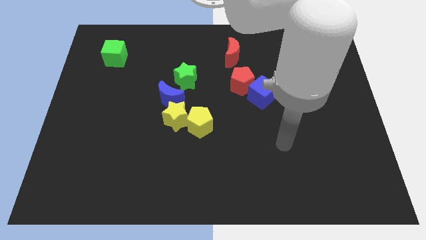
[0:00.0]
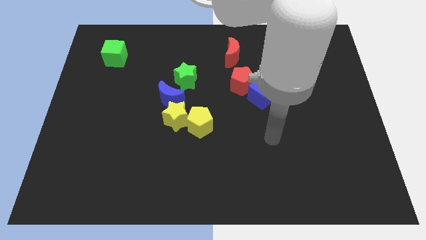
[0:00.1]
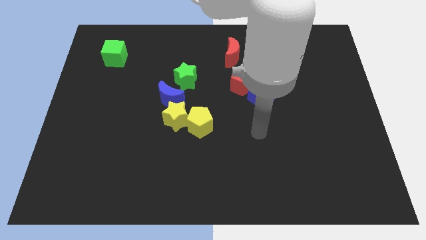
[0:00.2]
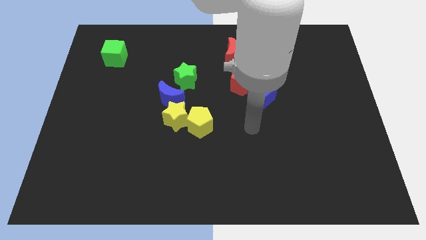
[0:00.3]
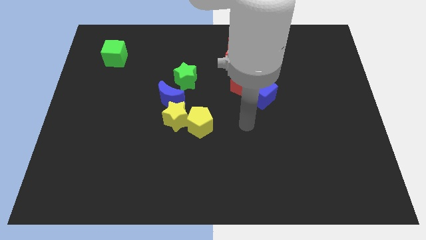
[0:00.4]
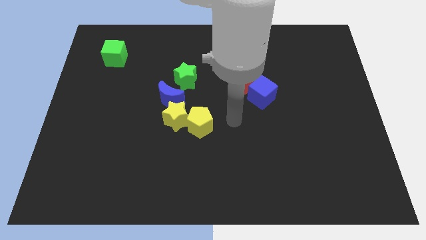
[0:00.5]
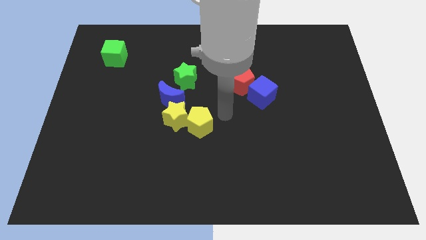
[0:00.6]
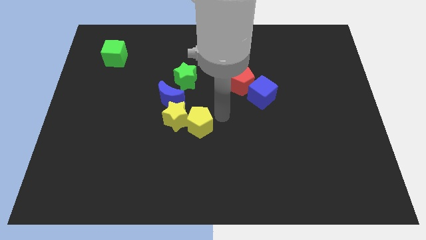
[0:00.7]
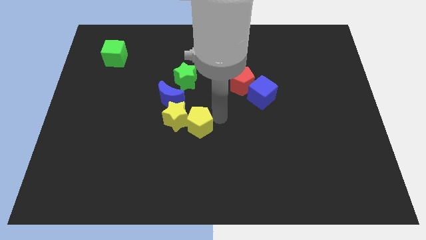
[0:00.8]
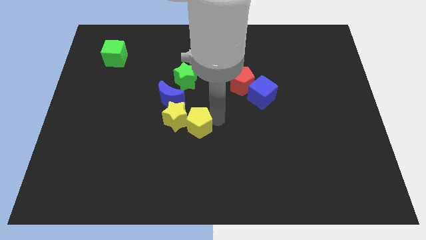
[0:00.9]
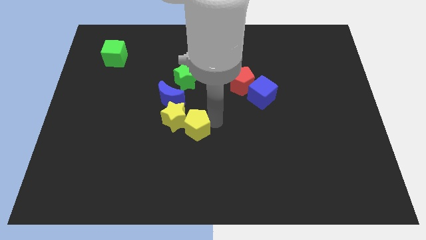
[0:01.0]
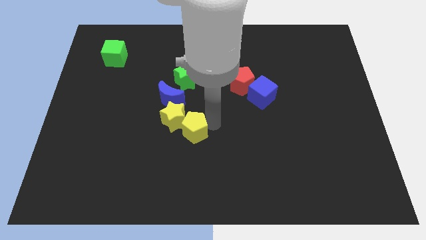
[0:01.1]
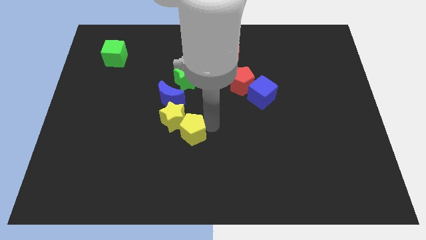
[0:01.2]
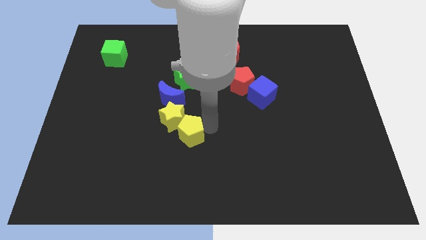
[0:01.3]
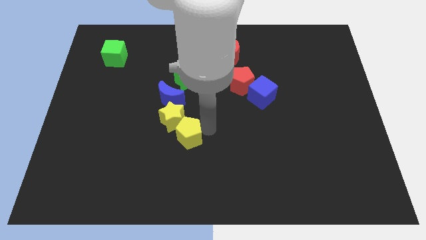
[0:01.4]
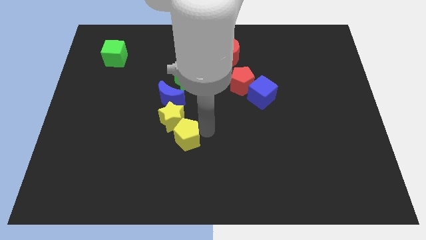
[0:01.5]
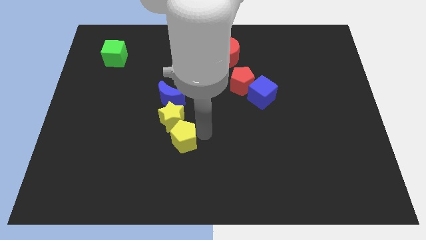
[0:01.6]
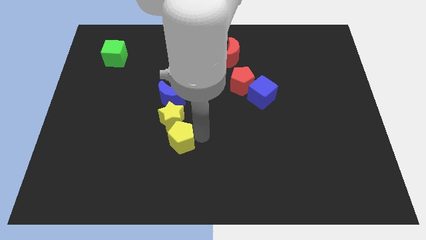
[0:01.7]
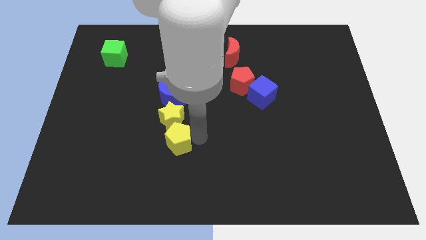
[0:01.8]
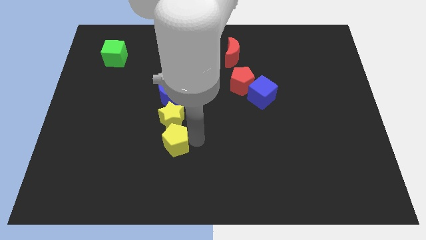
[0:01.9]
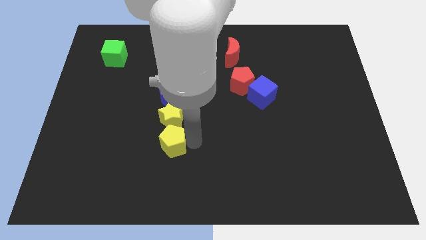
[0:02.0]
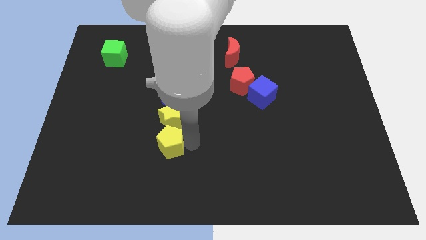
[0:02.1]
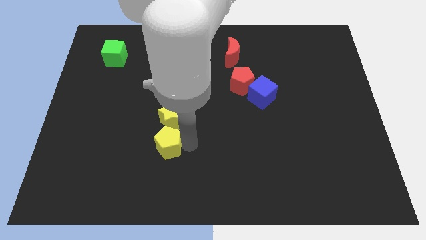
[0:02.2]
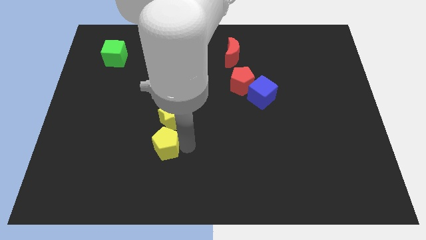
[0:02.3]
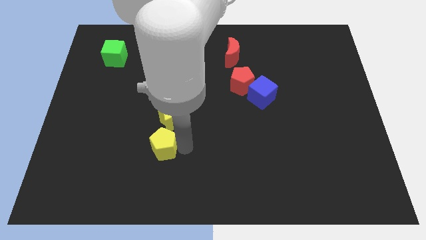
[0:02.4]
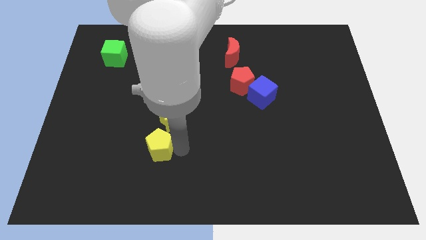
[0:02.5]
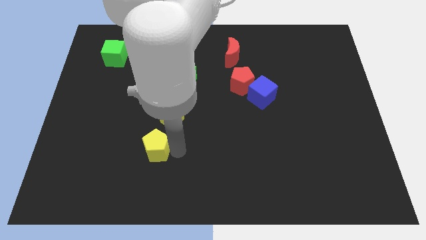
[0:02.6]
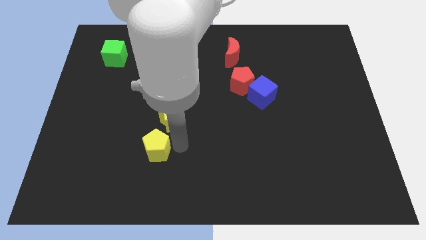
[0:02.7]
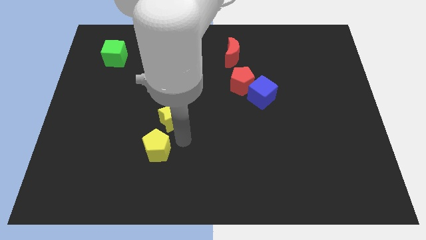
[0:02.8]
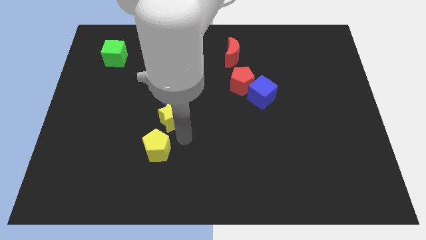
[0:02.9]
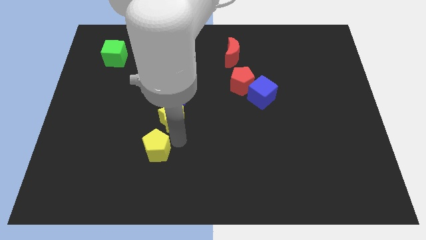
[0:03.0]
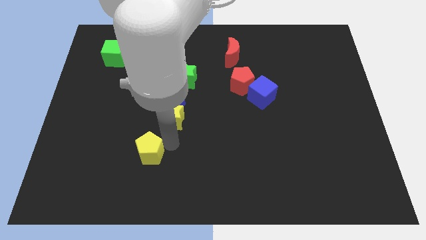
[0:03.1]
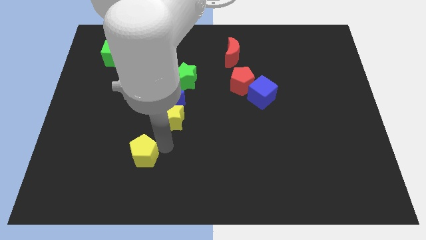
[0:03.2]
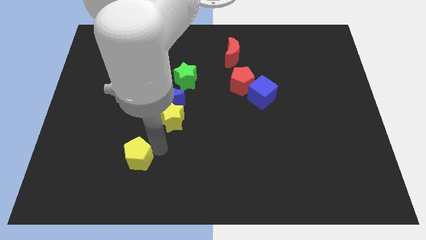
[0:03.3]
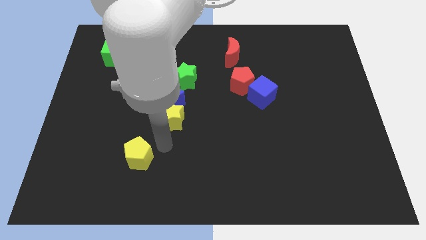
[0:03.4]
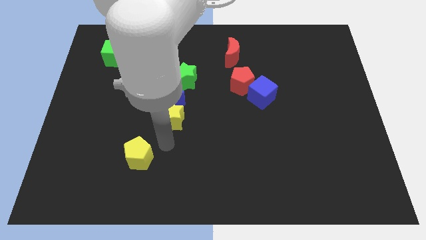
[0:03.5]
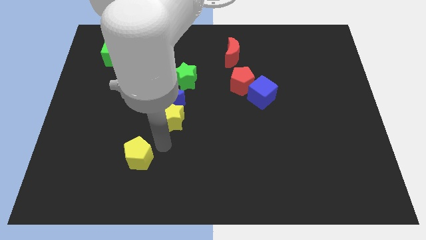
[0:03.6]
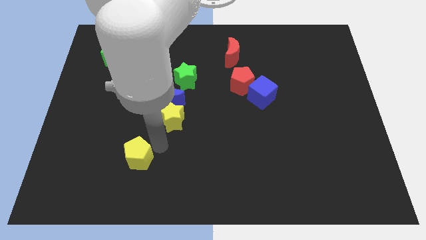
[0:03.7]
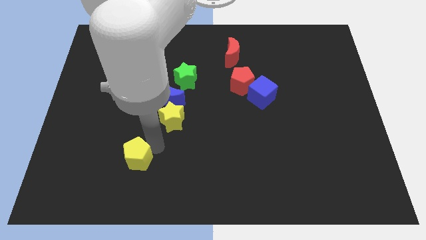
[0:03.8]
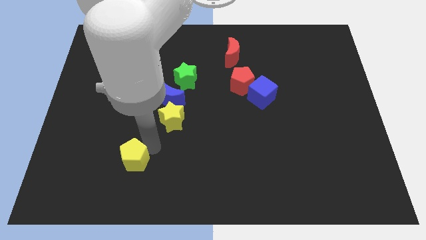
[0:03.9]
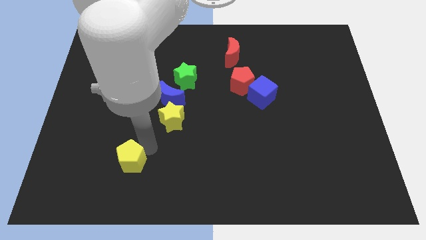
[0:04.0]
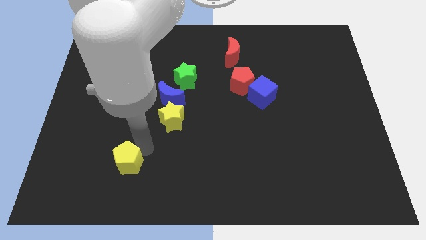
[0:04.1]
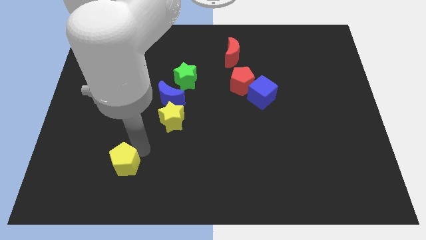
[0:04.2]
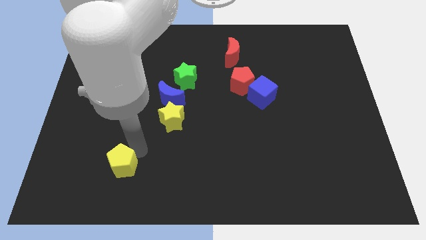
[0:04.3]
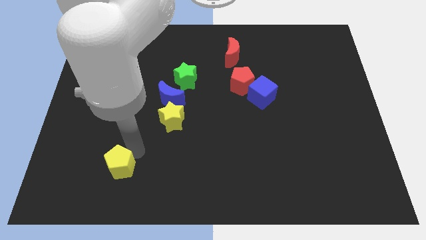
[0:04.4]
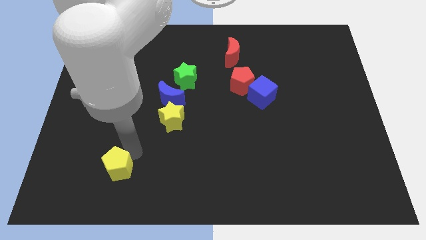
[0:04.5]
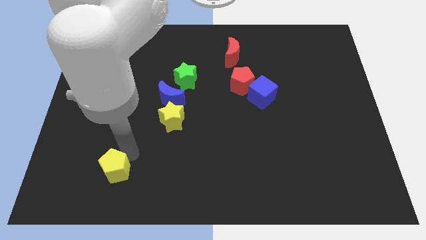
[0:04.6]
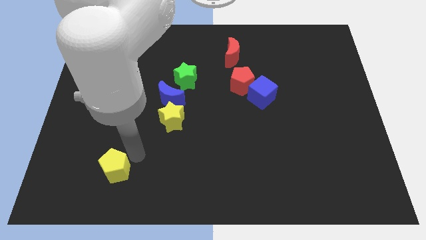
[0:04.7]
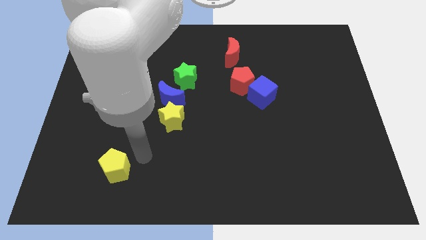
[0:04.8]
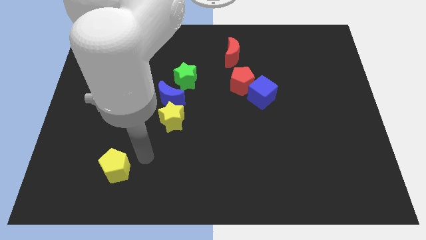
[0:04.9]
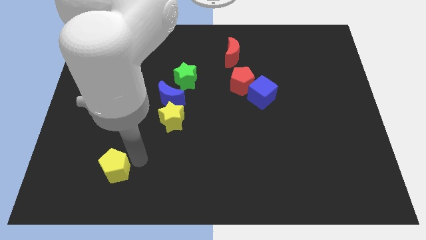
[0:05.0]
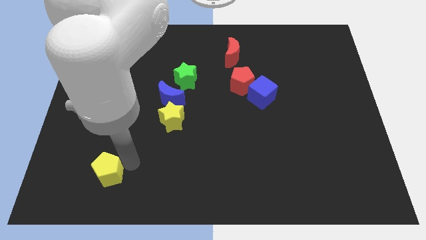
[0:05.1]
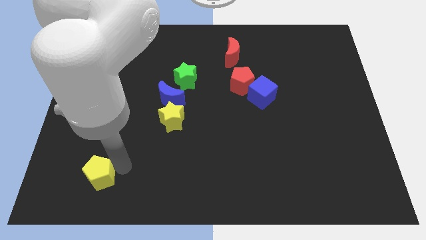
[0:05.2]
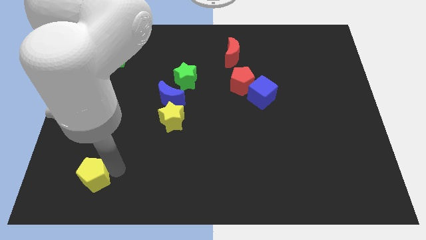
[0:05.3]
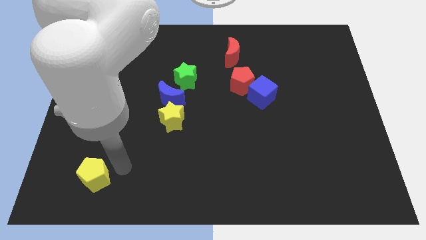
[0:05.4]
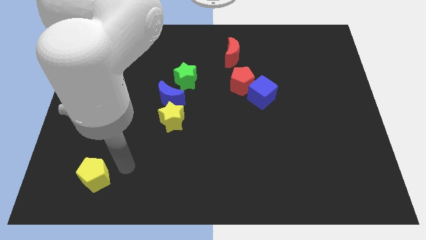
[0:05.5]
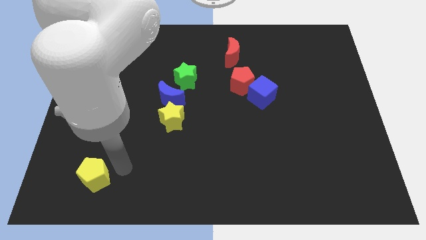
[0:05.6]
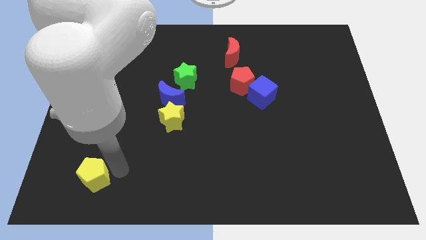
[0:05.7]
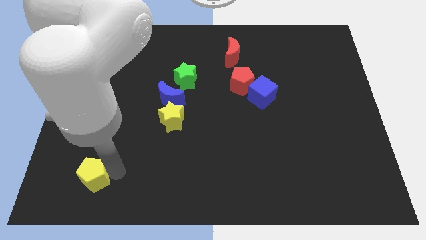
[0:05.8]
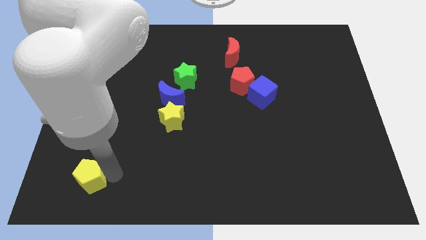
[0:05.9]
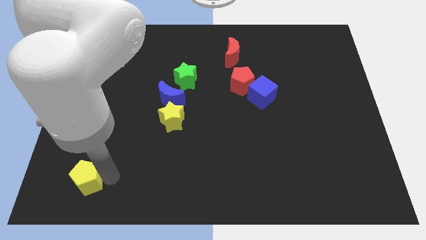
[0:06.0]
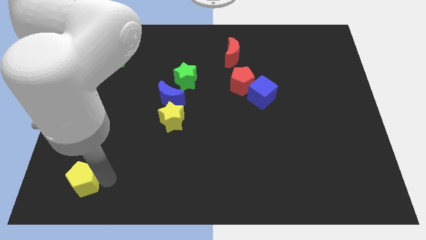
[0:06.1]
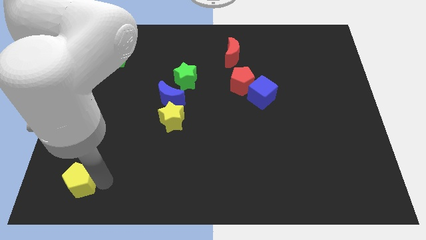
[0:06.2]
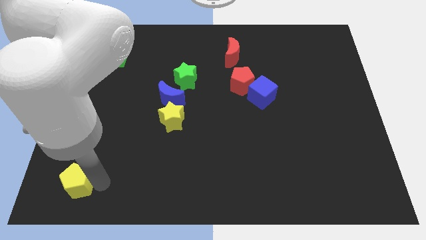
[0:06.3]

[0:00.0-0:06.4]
push the yellow pentagon to the bottom left of the board

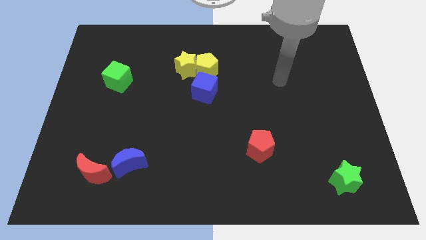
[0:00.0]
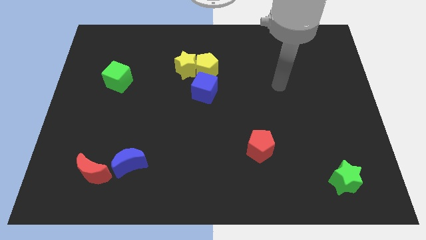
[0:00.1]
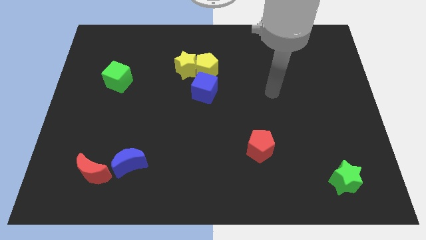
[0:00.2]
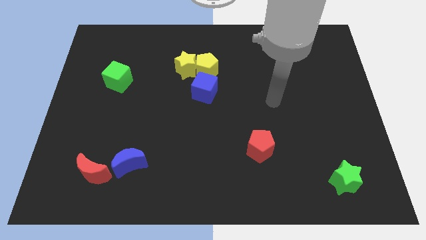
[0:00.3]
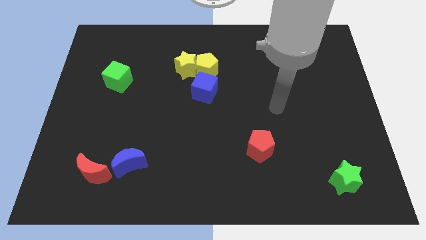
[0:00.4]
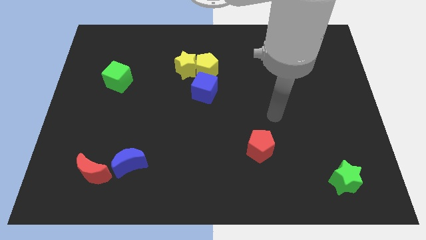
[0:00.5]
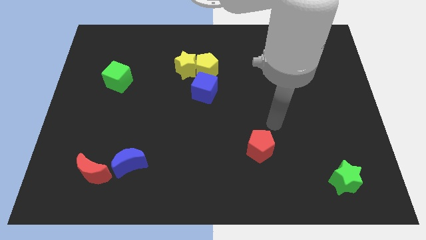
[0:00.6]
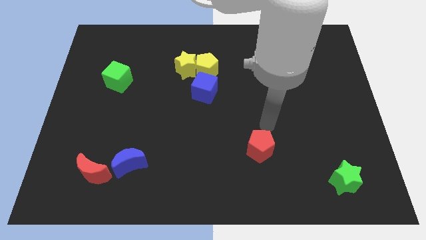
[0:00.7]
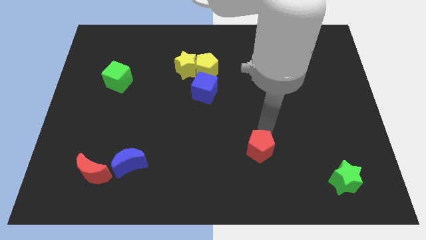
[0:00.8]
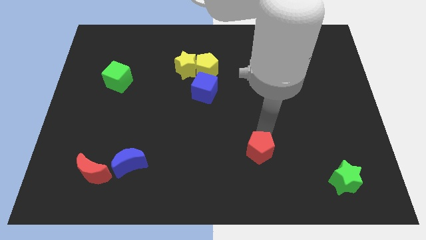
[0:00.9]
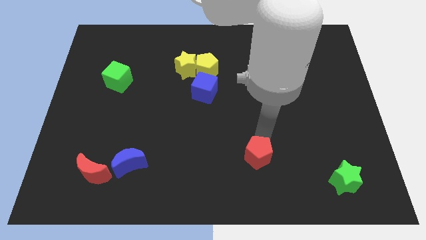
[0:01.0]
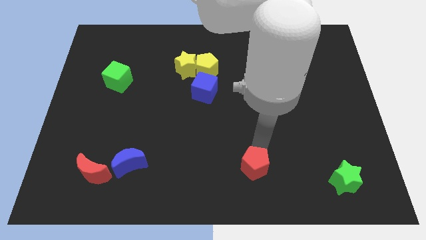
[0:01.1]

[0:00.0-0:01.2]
put the red pentagon to the bottom
